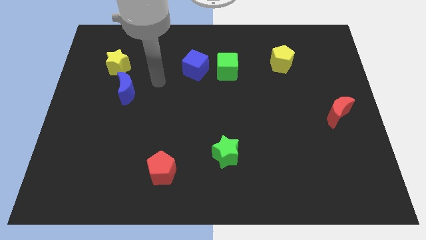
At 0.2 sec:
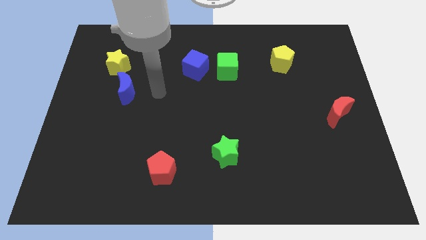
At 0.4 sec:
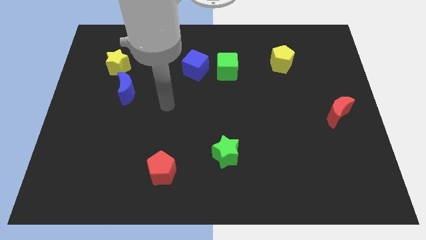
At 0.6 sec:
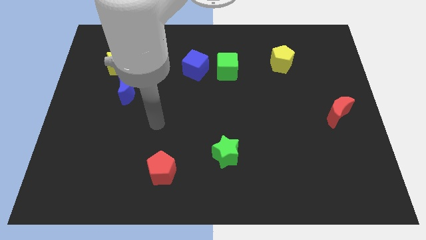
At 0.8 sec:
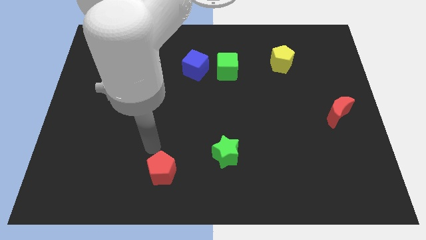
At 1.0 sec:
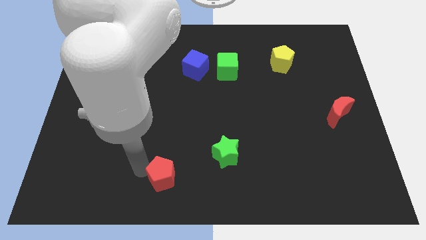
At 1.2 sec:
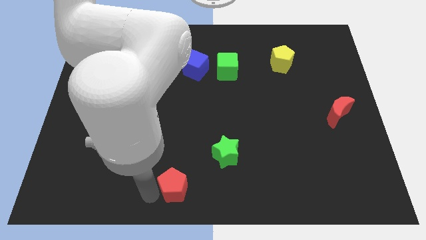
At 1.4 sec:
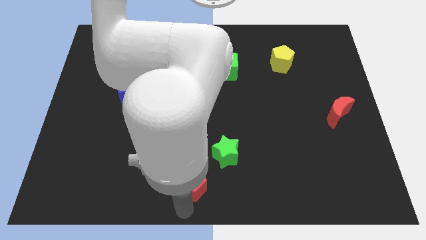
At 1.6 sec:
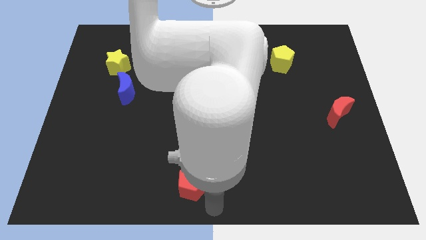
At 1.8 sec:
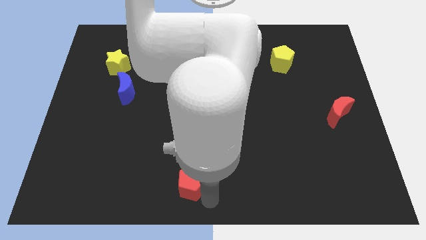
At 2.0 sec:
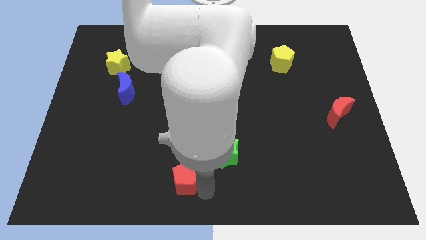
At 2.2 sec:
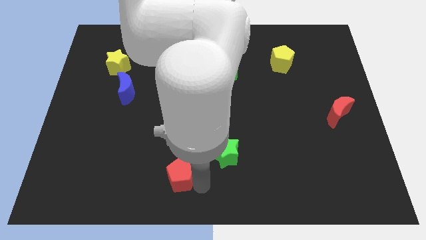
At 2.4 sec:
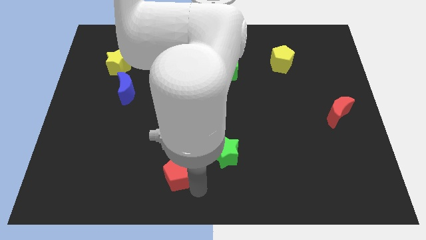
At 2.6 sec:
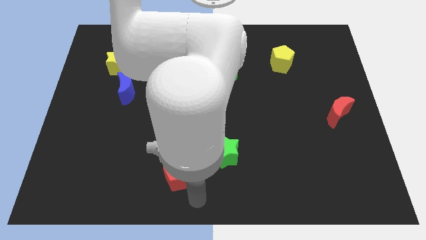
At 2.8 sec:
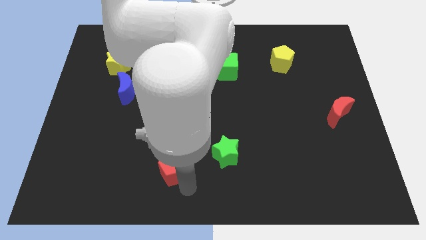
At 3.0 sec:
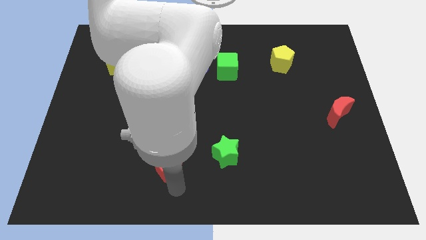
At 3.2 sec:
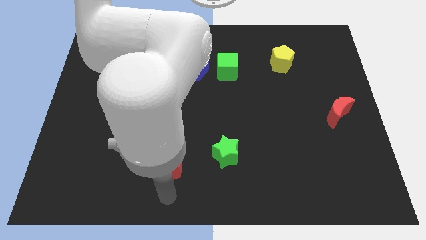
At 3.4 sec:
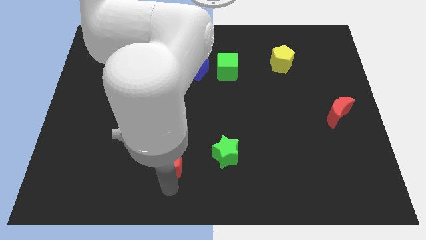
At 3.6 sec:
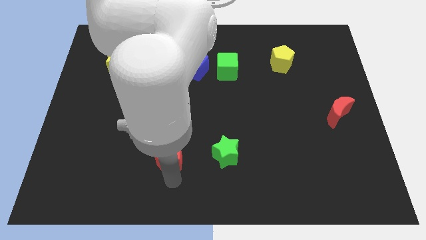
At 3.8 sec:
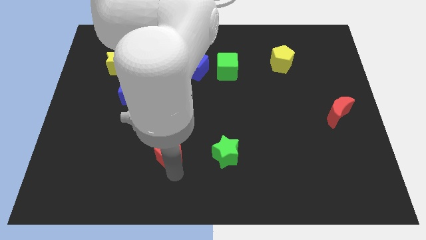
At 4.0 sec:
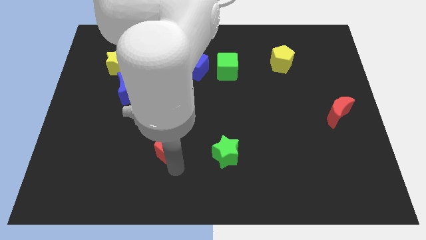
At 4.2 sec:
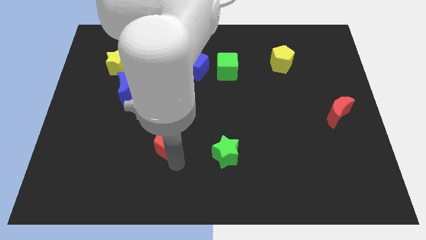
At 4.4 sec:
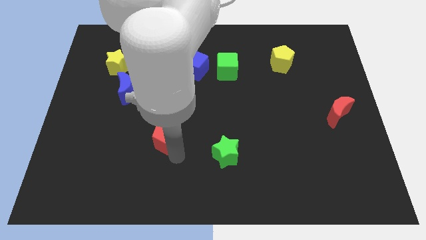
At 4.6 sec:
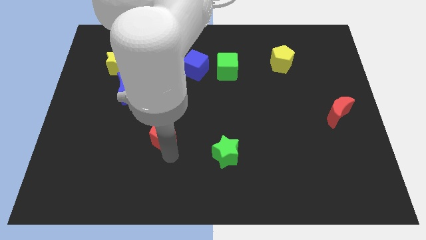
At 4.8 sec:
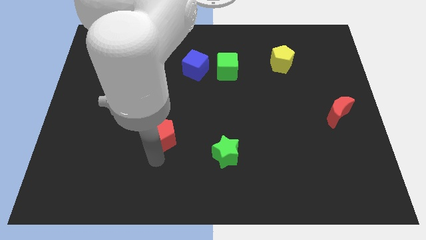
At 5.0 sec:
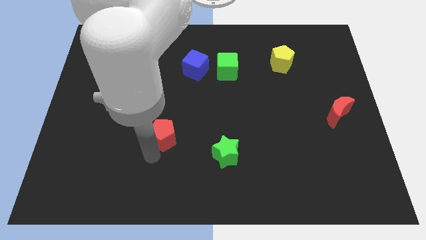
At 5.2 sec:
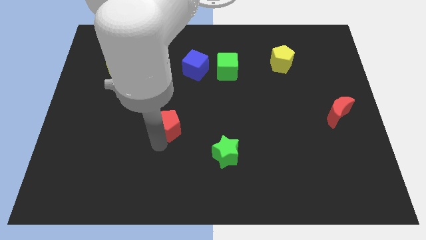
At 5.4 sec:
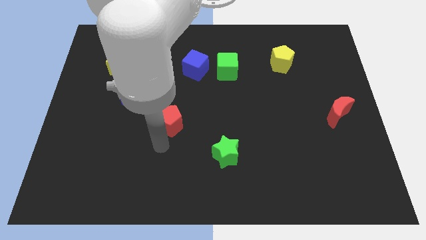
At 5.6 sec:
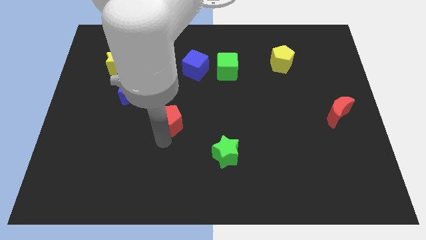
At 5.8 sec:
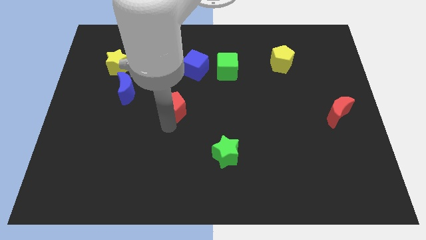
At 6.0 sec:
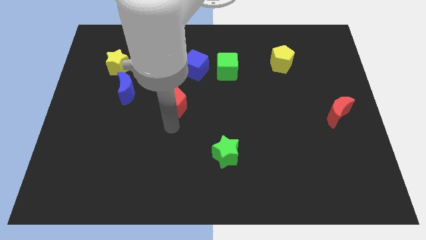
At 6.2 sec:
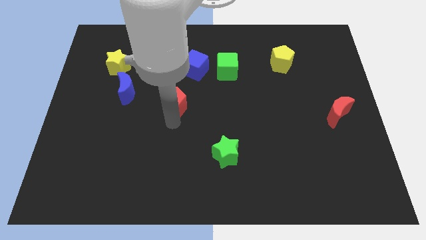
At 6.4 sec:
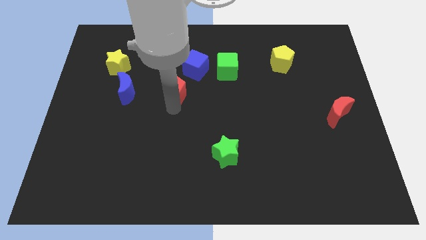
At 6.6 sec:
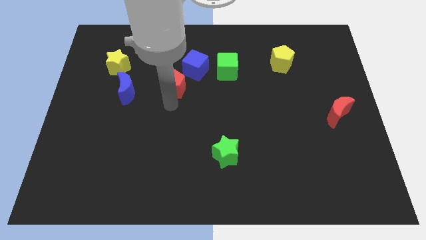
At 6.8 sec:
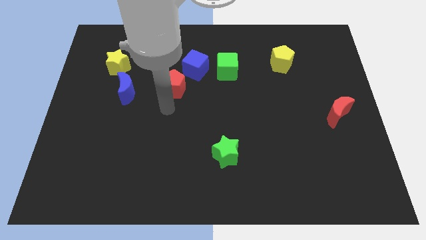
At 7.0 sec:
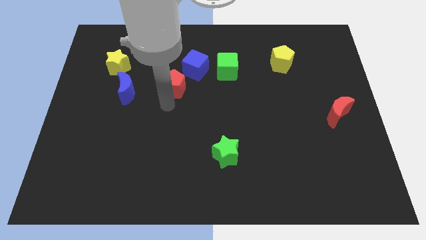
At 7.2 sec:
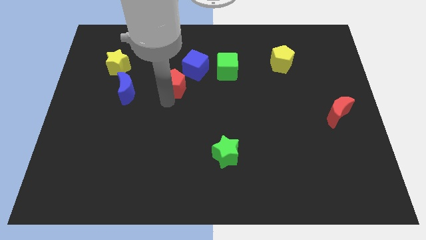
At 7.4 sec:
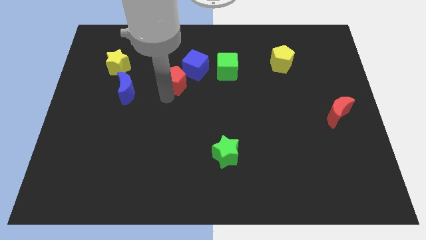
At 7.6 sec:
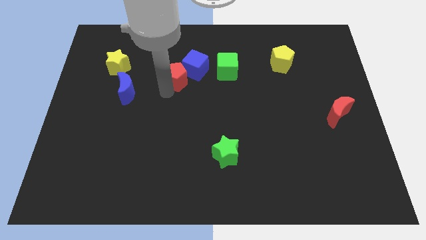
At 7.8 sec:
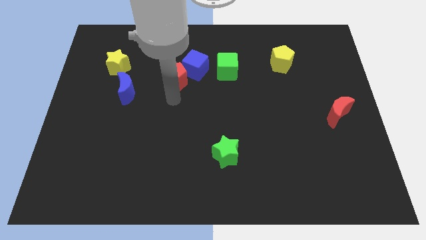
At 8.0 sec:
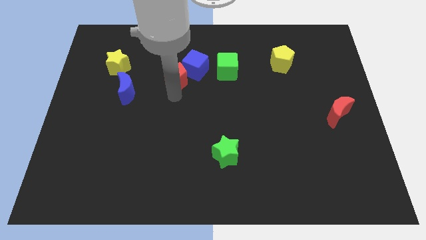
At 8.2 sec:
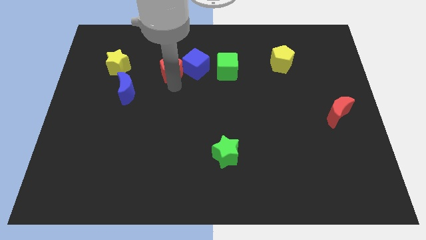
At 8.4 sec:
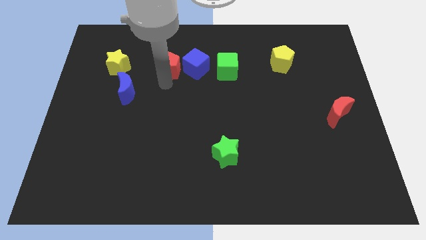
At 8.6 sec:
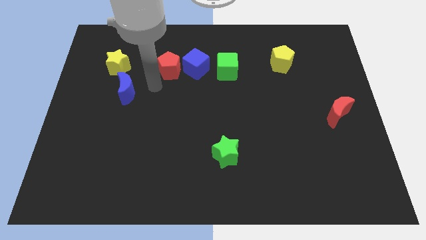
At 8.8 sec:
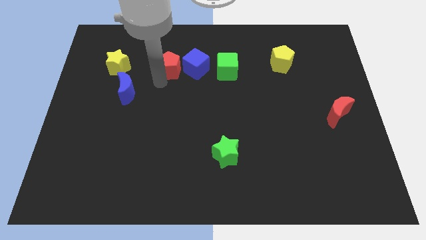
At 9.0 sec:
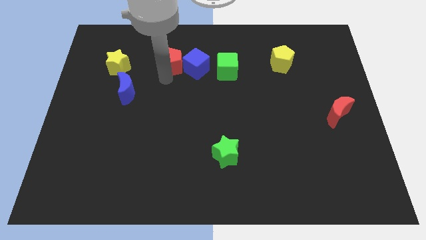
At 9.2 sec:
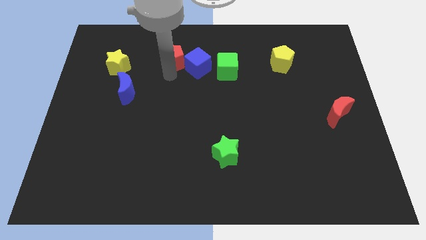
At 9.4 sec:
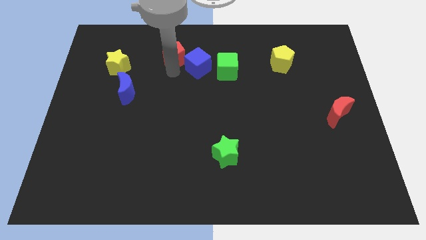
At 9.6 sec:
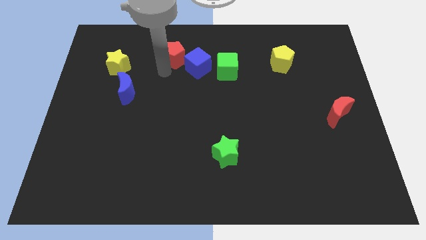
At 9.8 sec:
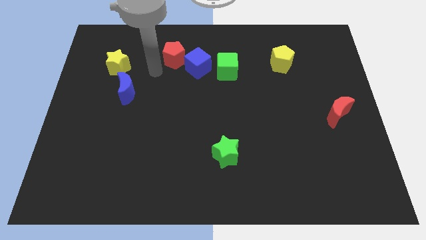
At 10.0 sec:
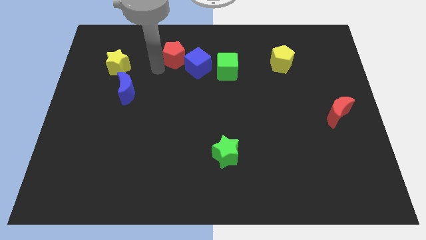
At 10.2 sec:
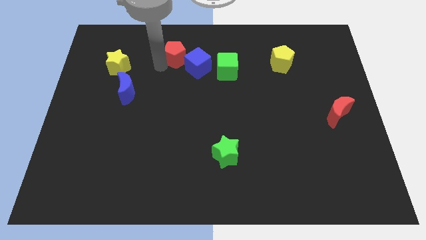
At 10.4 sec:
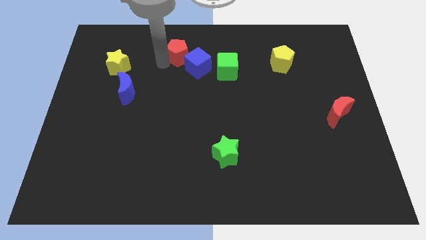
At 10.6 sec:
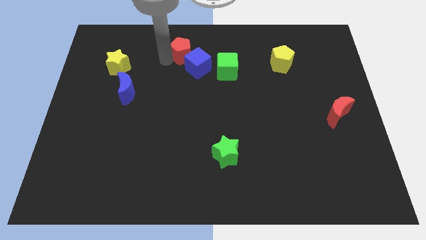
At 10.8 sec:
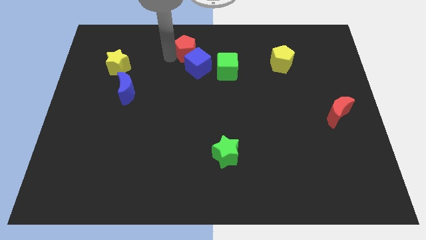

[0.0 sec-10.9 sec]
push the red pentagon to the top side

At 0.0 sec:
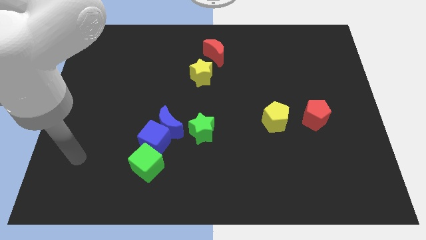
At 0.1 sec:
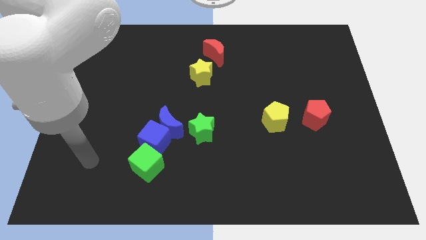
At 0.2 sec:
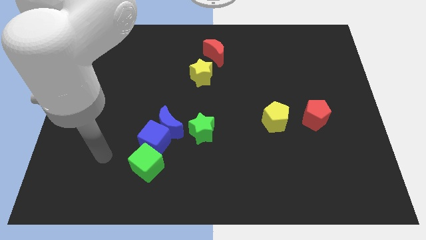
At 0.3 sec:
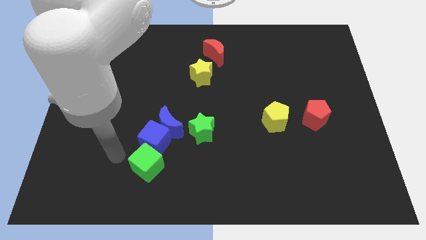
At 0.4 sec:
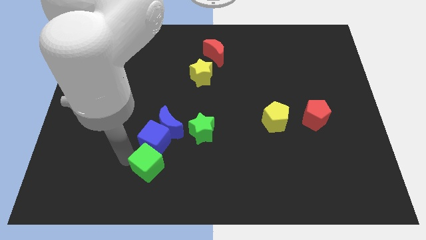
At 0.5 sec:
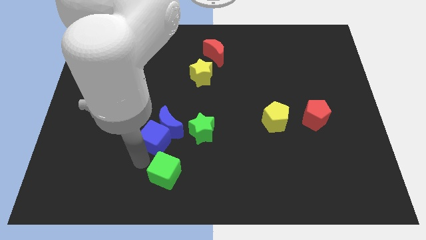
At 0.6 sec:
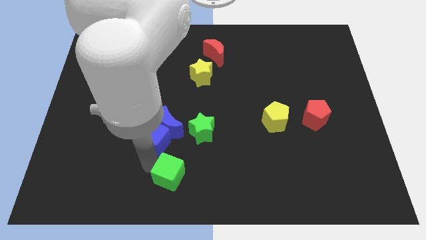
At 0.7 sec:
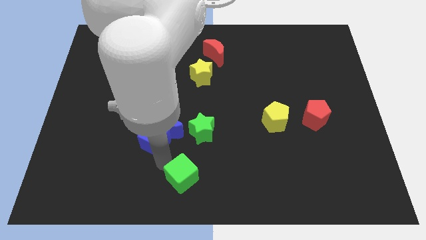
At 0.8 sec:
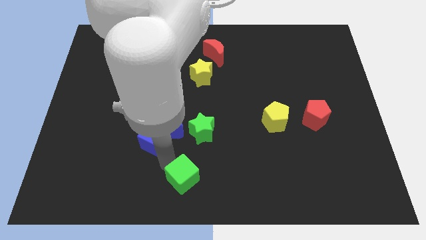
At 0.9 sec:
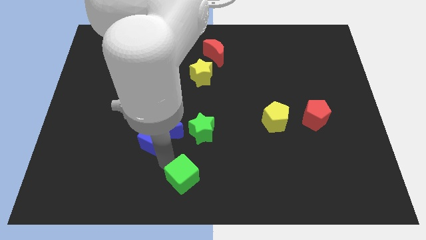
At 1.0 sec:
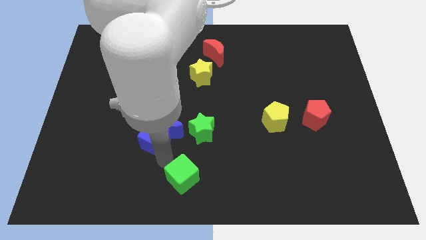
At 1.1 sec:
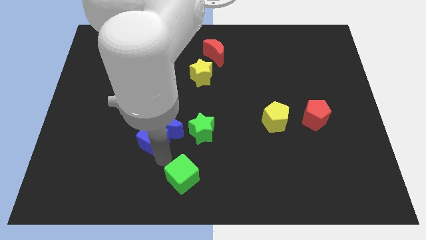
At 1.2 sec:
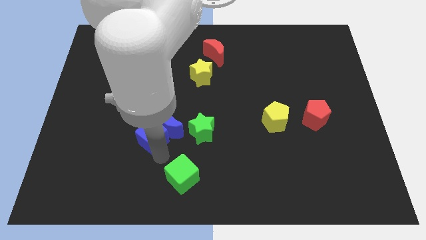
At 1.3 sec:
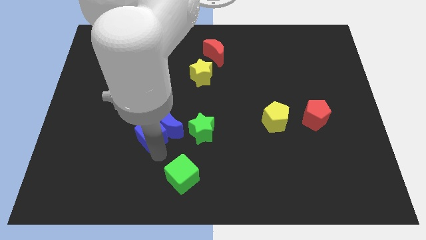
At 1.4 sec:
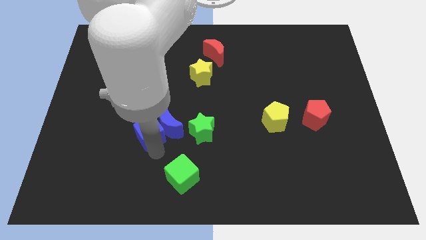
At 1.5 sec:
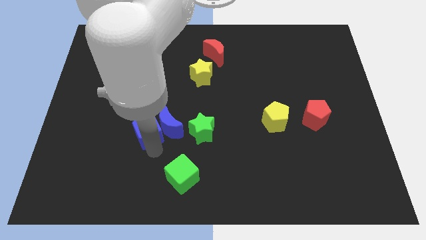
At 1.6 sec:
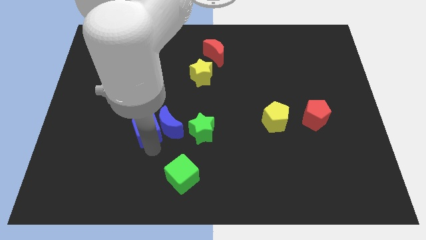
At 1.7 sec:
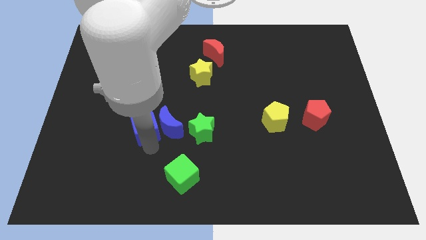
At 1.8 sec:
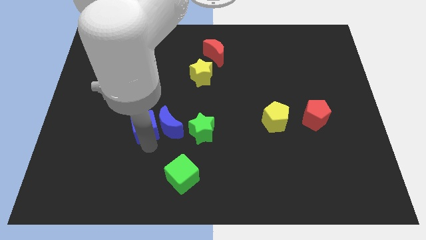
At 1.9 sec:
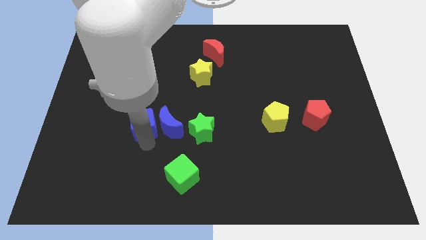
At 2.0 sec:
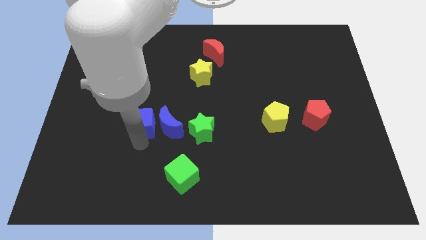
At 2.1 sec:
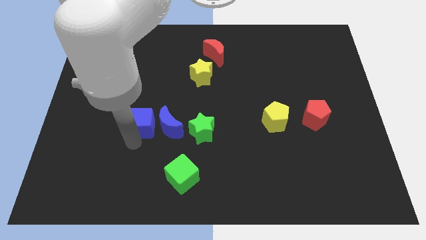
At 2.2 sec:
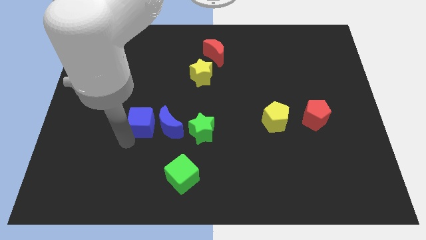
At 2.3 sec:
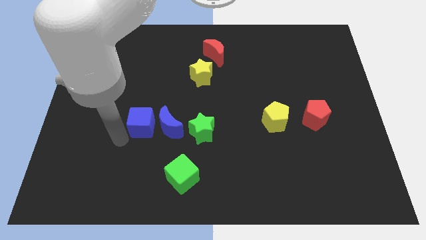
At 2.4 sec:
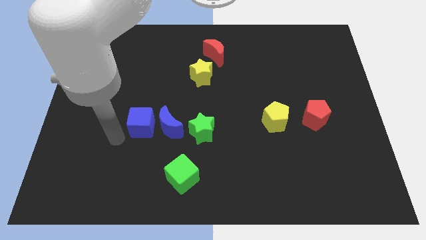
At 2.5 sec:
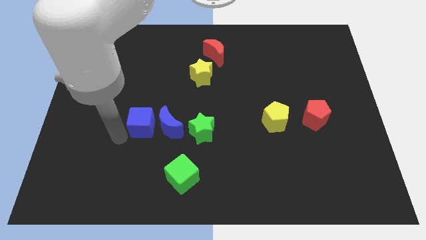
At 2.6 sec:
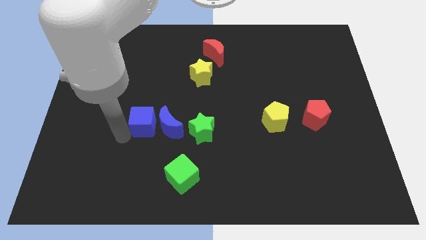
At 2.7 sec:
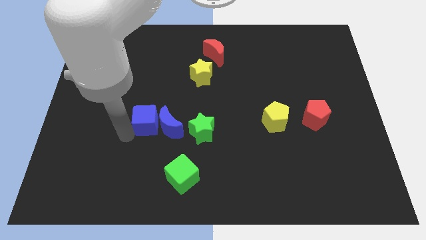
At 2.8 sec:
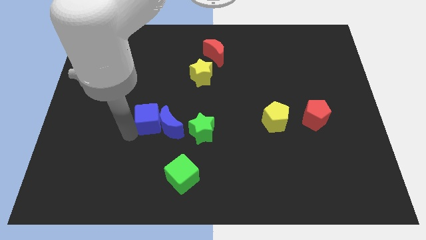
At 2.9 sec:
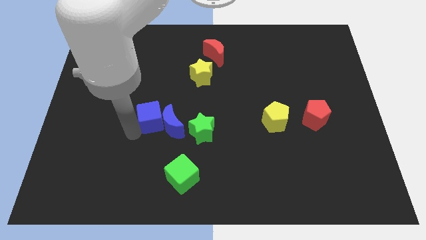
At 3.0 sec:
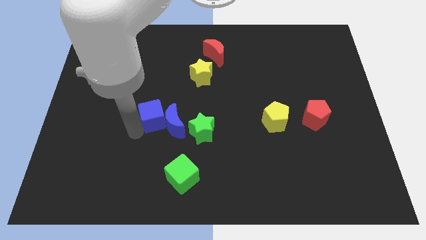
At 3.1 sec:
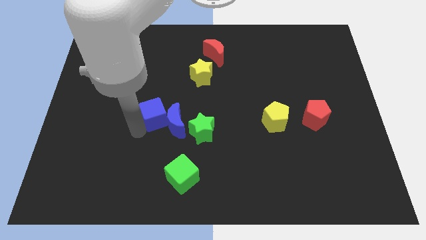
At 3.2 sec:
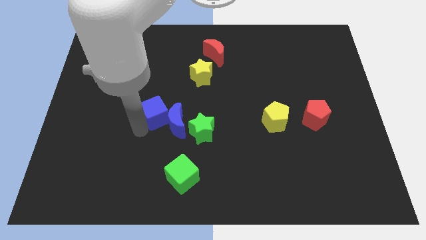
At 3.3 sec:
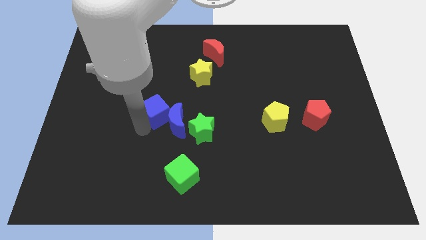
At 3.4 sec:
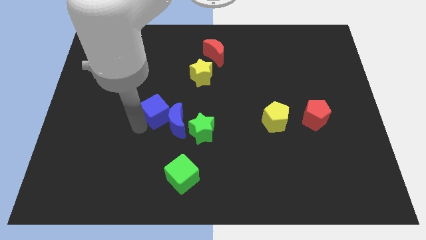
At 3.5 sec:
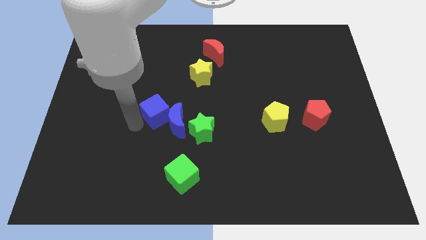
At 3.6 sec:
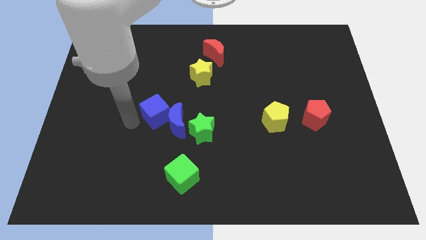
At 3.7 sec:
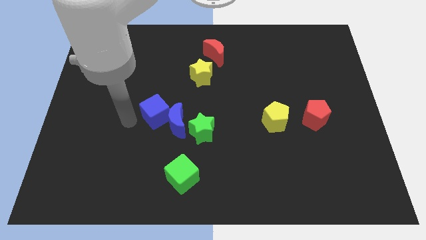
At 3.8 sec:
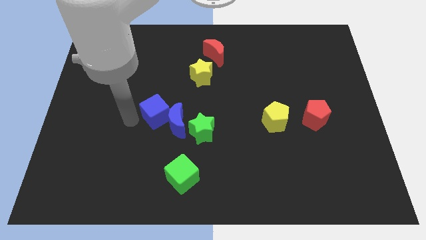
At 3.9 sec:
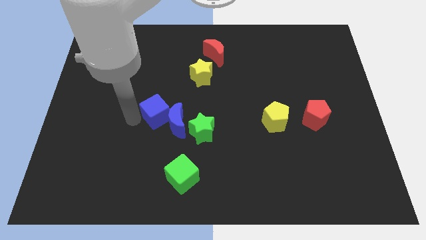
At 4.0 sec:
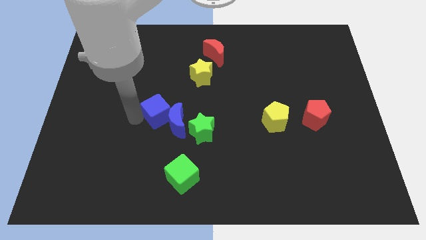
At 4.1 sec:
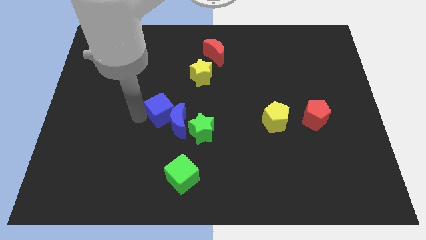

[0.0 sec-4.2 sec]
move the blue cube to the center of the board
